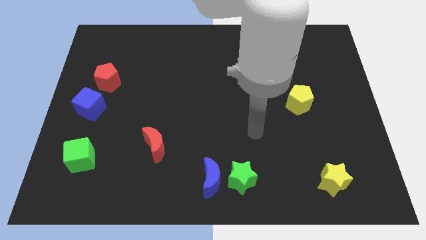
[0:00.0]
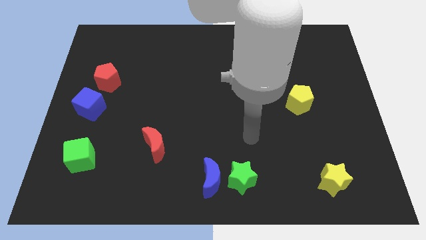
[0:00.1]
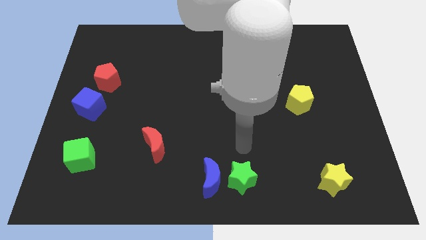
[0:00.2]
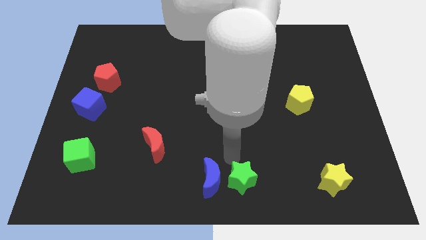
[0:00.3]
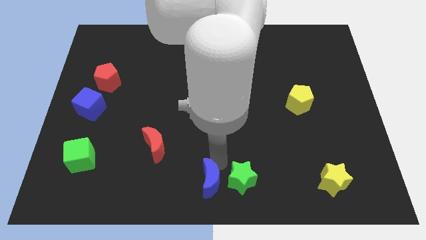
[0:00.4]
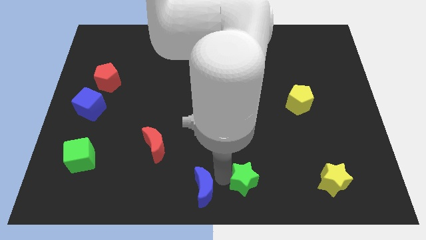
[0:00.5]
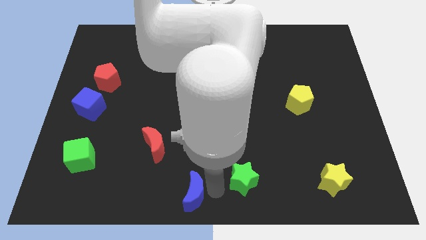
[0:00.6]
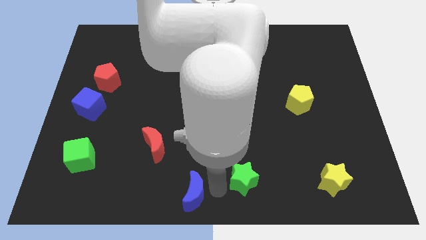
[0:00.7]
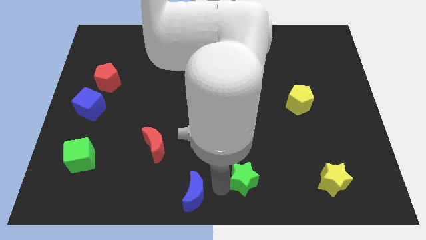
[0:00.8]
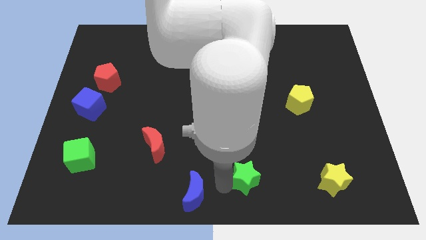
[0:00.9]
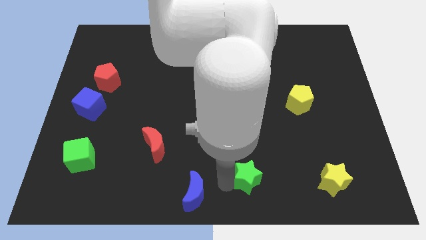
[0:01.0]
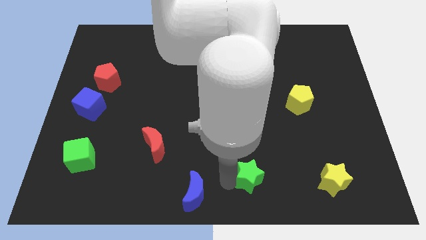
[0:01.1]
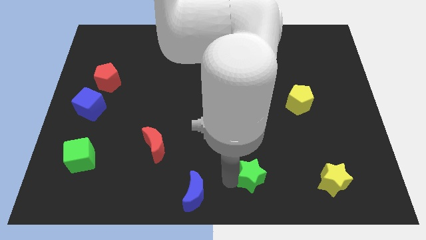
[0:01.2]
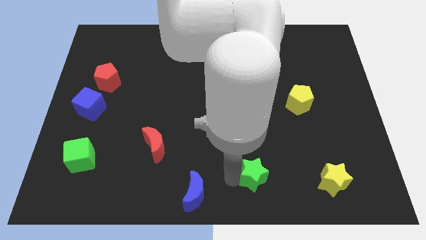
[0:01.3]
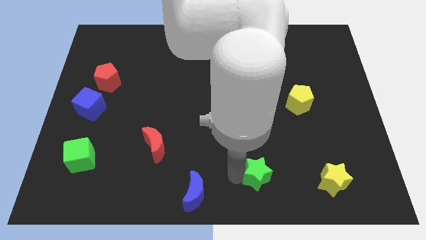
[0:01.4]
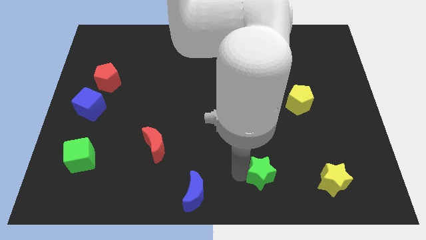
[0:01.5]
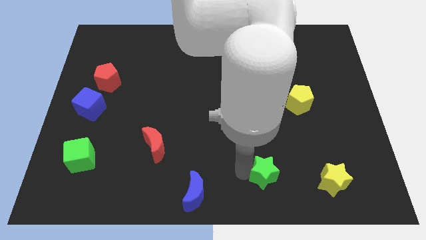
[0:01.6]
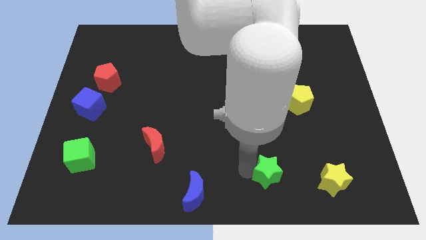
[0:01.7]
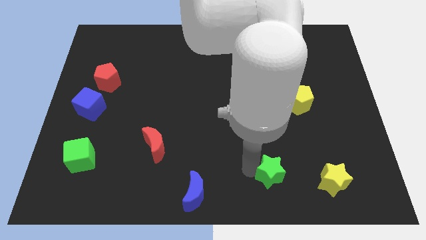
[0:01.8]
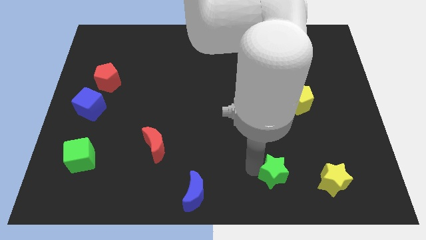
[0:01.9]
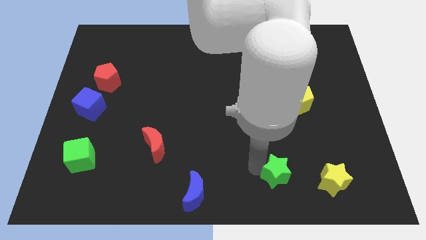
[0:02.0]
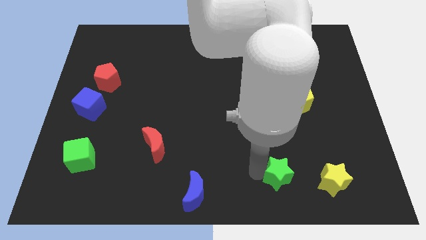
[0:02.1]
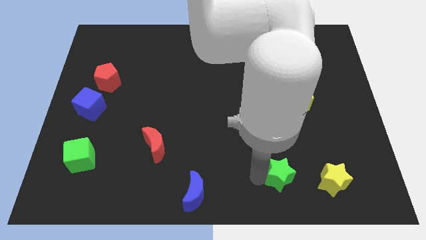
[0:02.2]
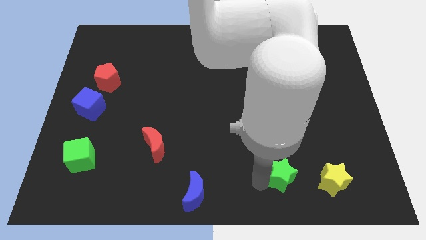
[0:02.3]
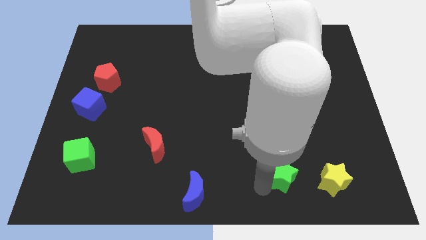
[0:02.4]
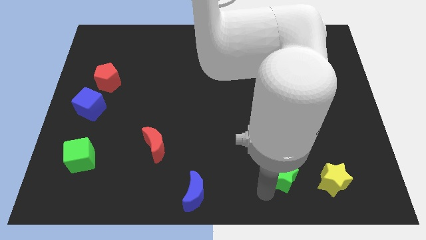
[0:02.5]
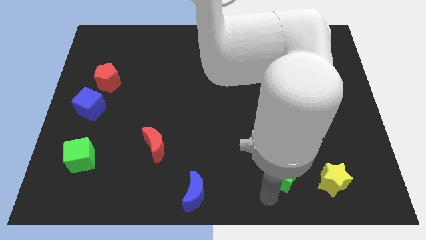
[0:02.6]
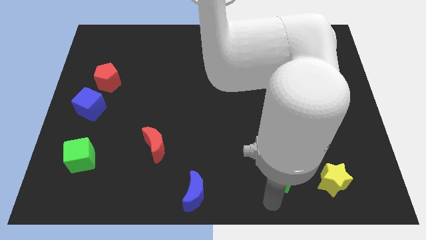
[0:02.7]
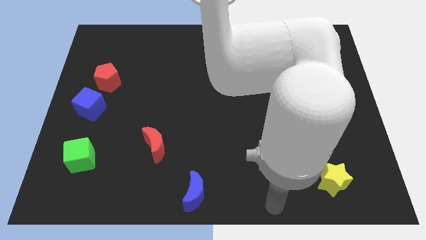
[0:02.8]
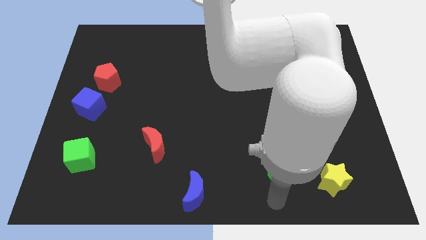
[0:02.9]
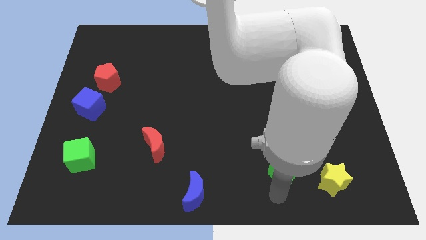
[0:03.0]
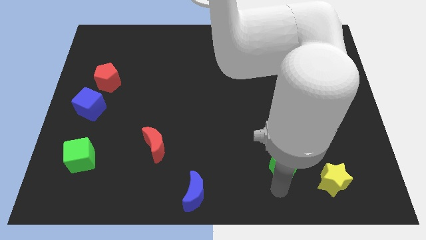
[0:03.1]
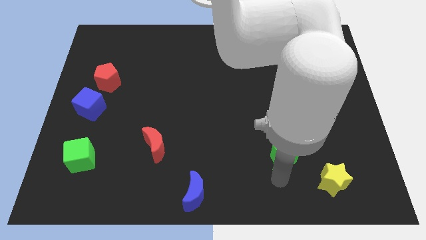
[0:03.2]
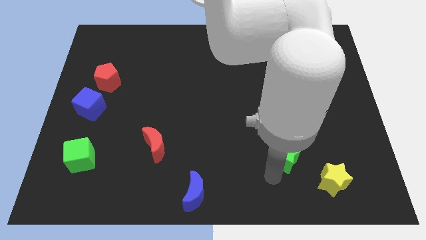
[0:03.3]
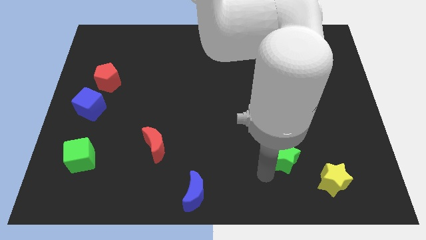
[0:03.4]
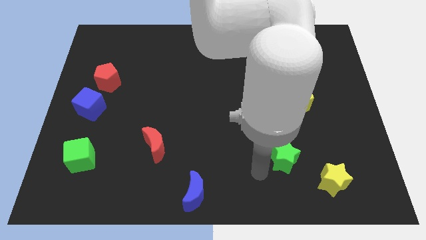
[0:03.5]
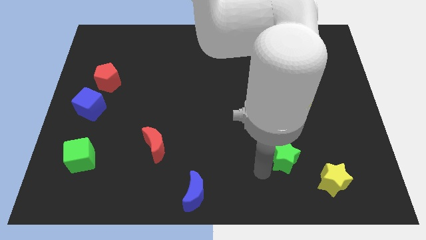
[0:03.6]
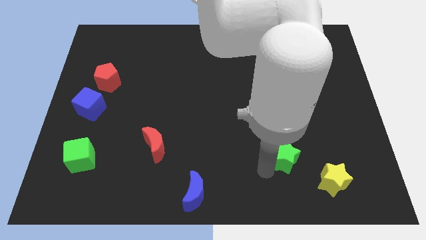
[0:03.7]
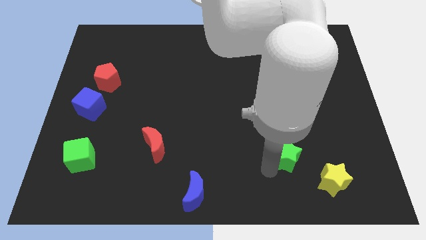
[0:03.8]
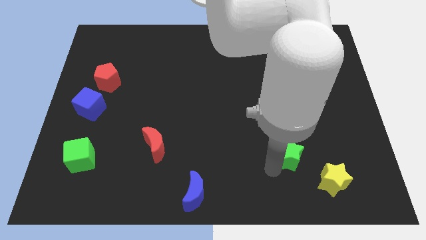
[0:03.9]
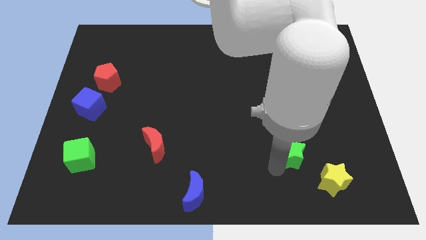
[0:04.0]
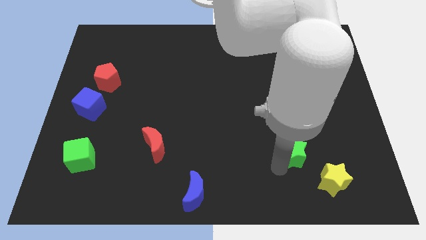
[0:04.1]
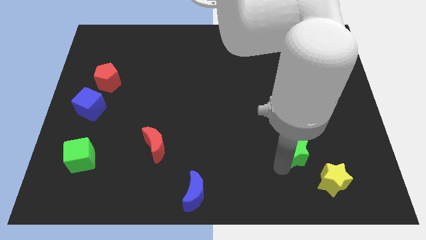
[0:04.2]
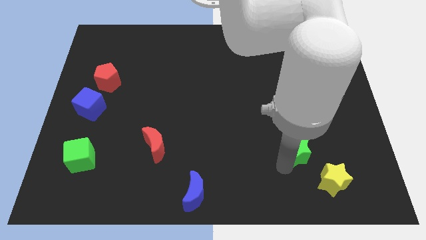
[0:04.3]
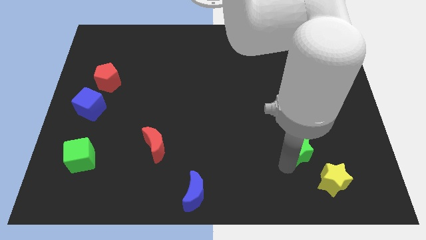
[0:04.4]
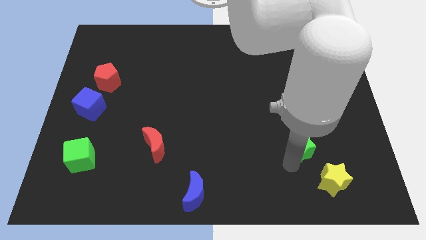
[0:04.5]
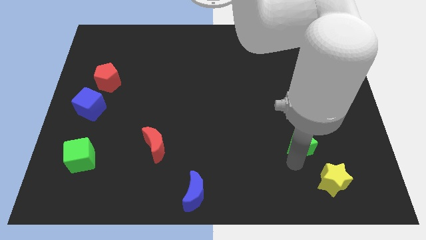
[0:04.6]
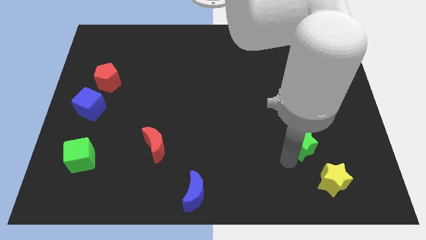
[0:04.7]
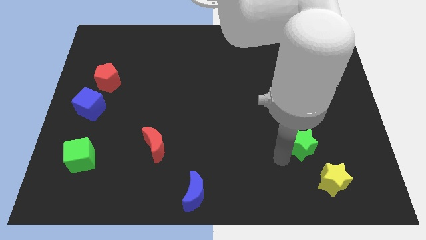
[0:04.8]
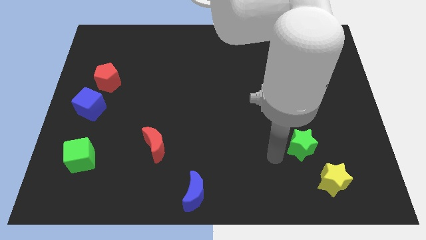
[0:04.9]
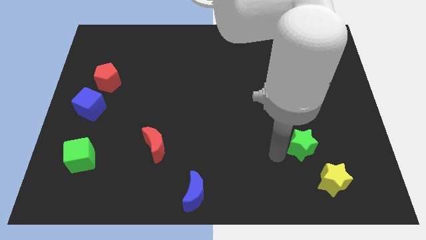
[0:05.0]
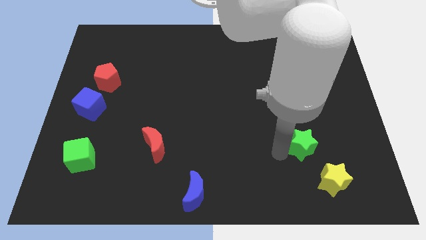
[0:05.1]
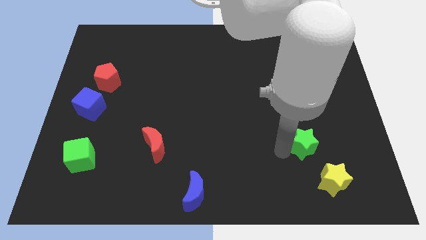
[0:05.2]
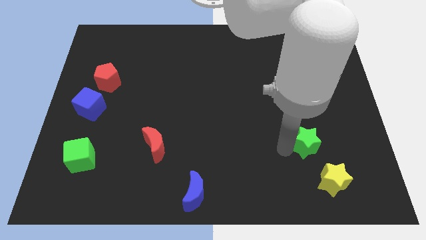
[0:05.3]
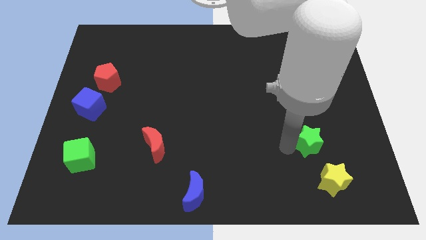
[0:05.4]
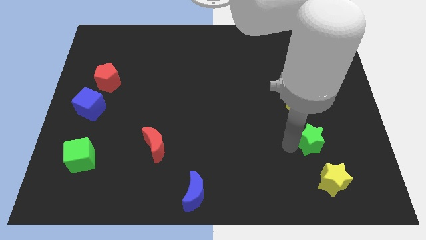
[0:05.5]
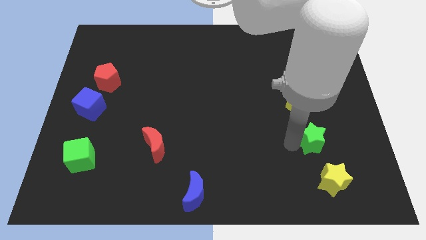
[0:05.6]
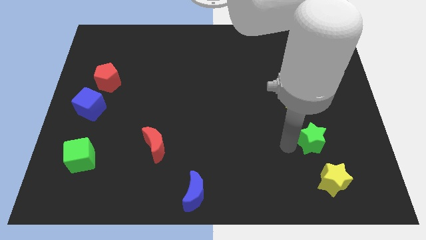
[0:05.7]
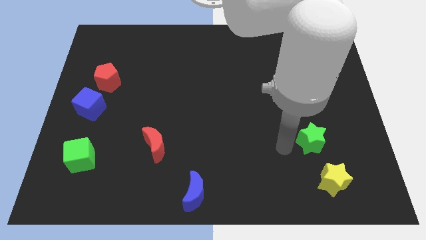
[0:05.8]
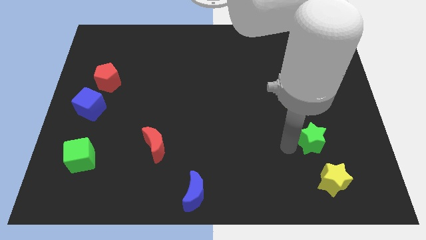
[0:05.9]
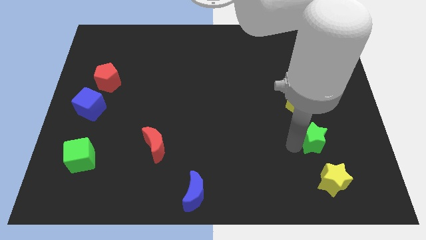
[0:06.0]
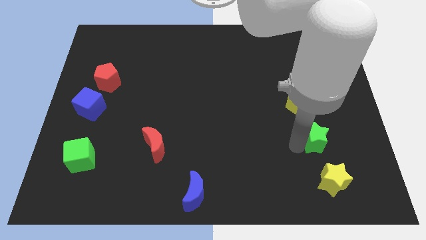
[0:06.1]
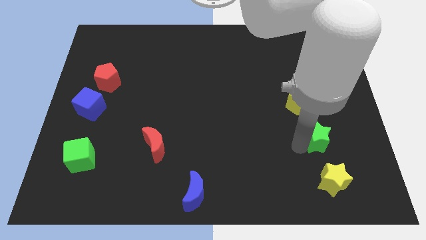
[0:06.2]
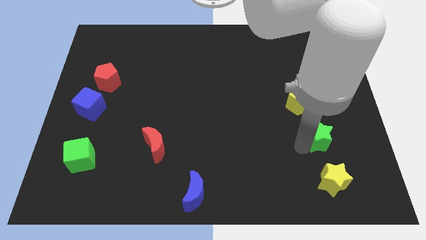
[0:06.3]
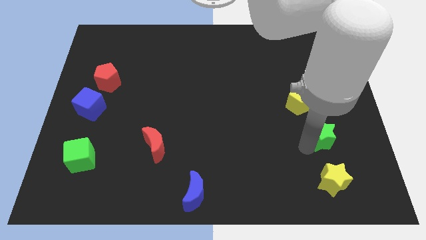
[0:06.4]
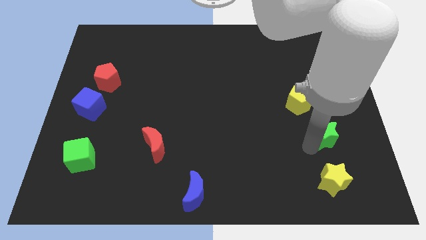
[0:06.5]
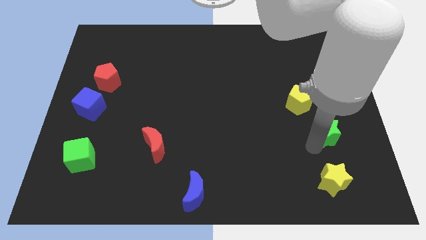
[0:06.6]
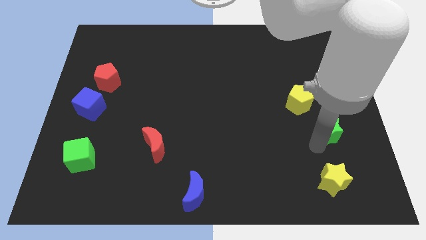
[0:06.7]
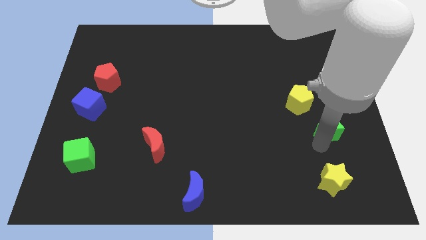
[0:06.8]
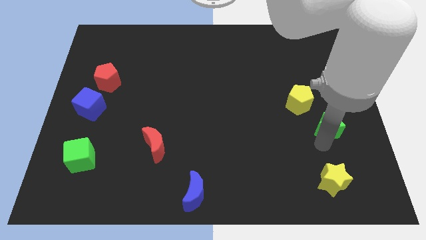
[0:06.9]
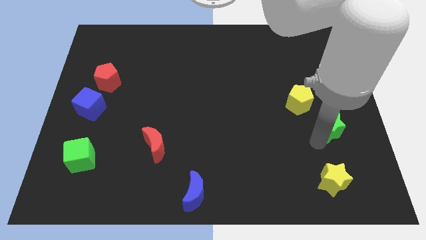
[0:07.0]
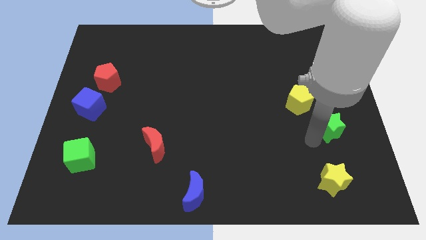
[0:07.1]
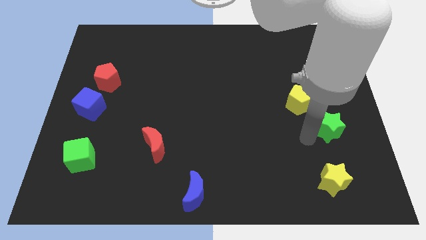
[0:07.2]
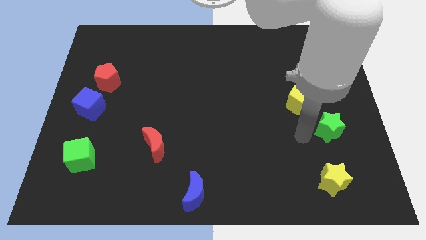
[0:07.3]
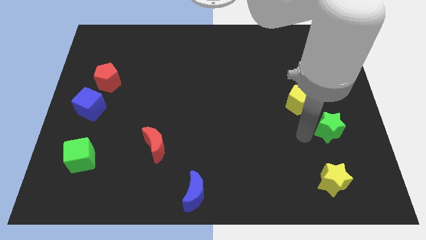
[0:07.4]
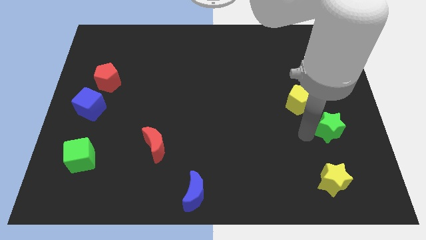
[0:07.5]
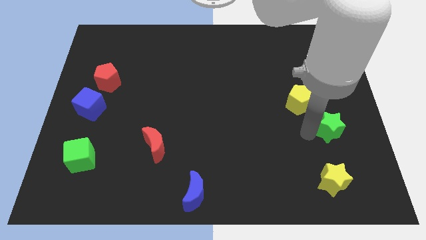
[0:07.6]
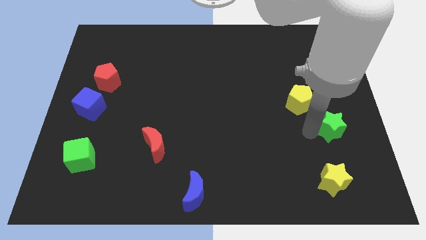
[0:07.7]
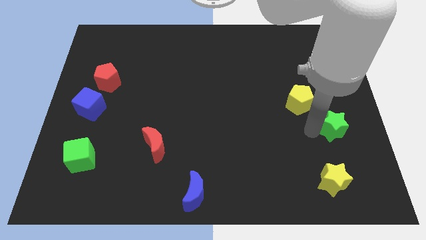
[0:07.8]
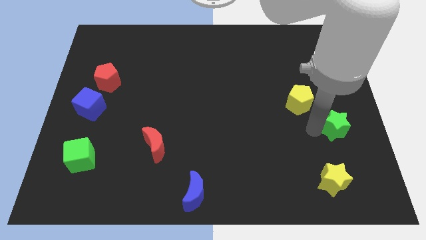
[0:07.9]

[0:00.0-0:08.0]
move the green star to the right side of the board
